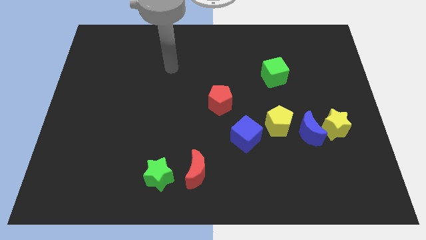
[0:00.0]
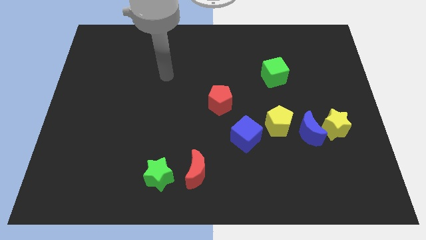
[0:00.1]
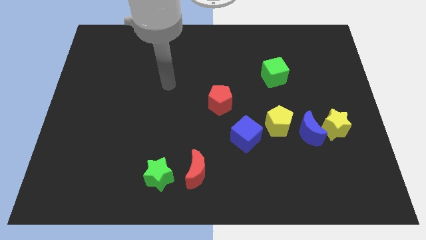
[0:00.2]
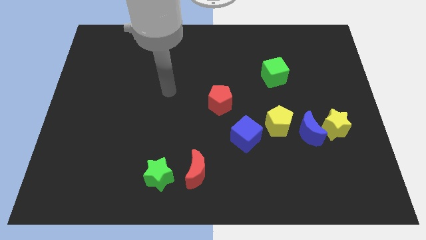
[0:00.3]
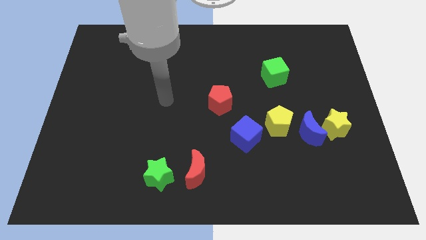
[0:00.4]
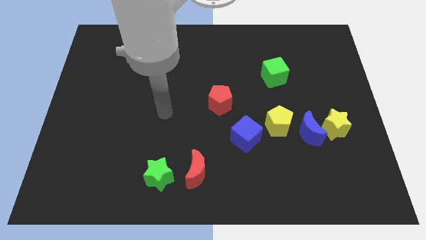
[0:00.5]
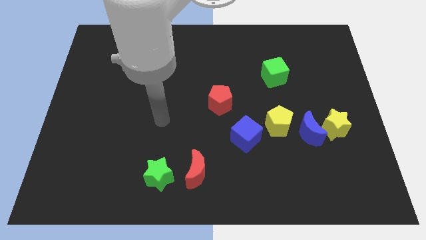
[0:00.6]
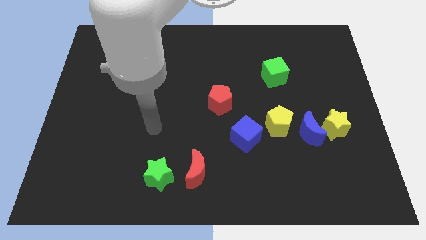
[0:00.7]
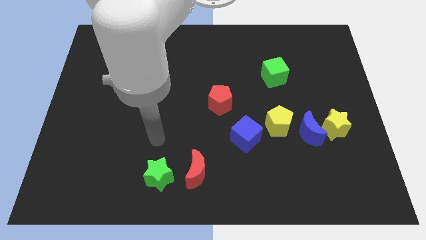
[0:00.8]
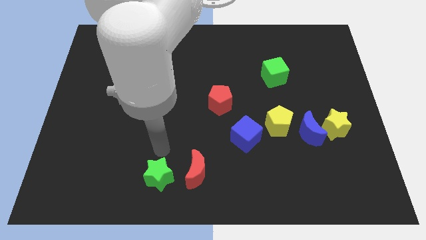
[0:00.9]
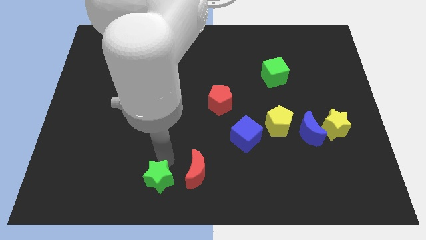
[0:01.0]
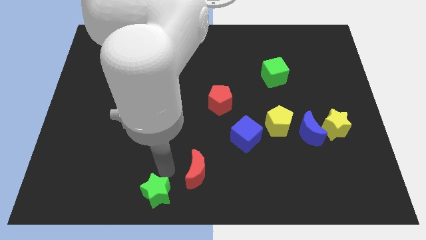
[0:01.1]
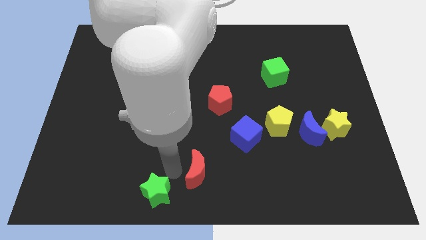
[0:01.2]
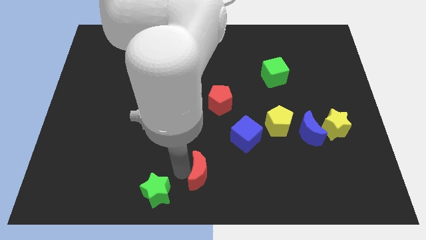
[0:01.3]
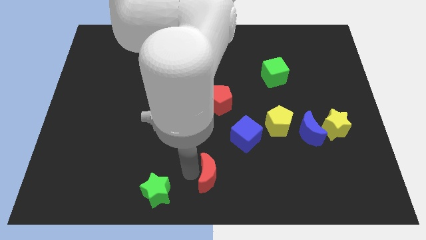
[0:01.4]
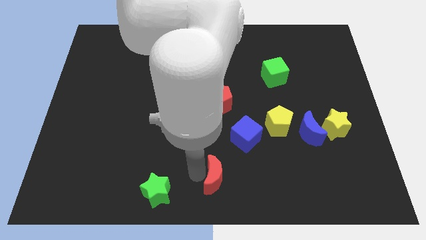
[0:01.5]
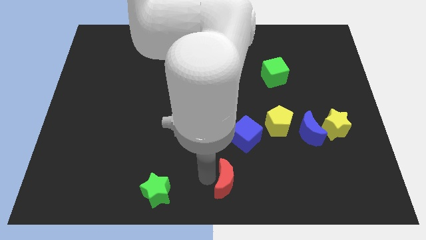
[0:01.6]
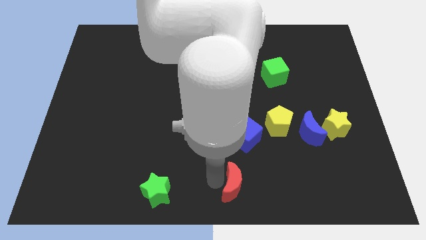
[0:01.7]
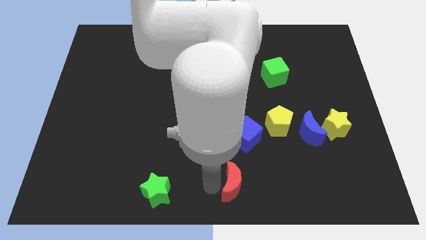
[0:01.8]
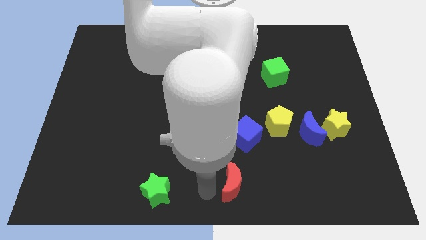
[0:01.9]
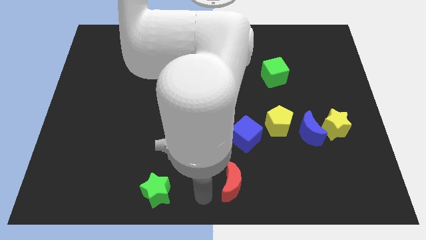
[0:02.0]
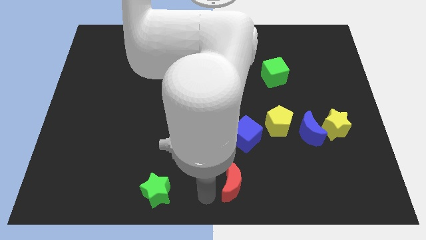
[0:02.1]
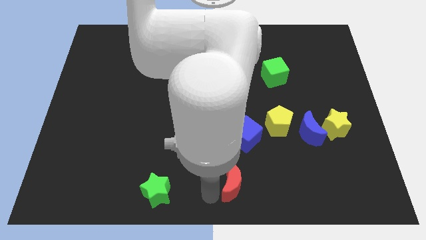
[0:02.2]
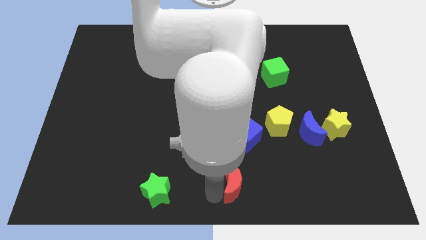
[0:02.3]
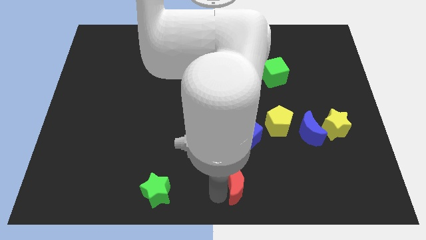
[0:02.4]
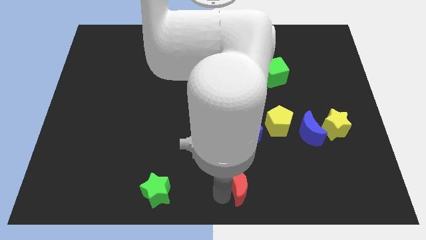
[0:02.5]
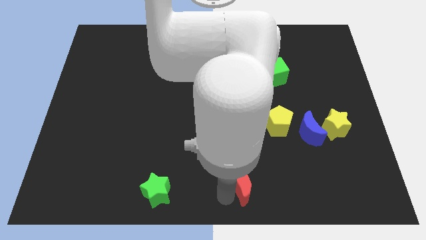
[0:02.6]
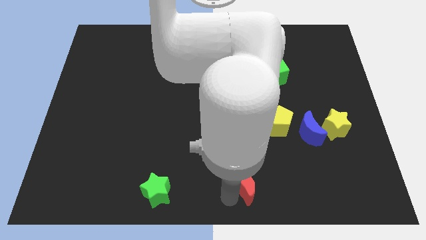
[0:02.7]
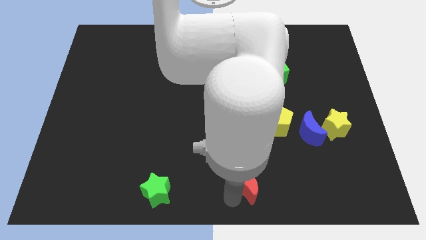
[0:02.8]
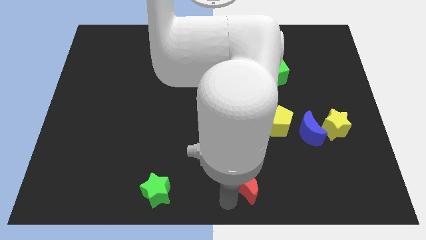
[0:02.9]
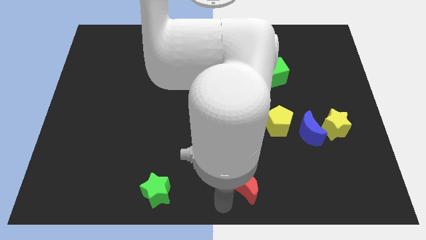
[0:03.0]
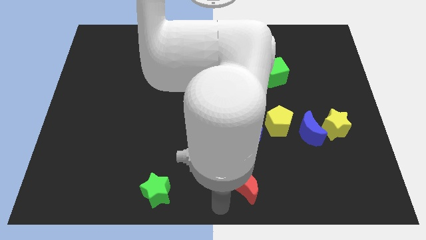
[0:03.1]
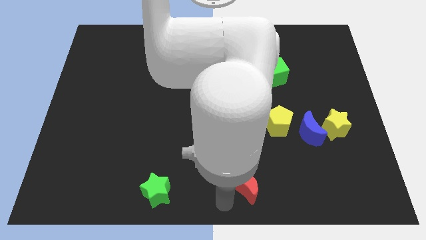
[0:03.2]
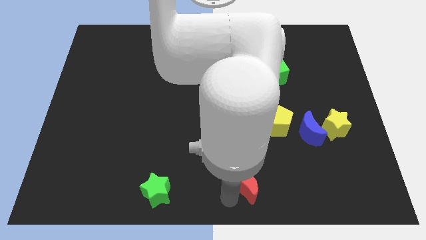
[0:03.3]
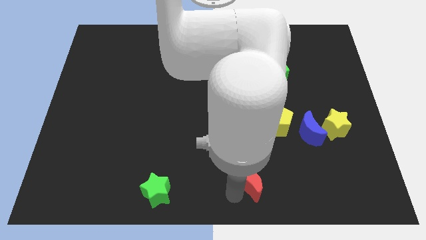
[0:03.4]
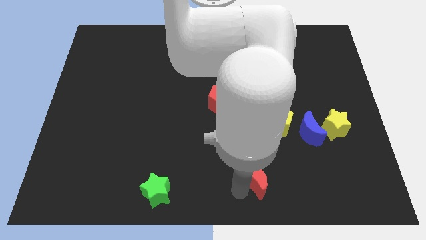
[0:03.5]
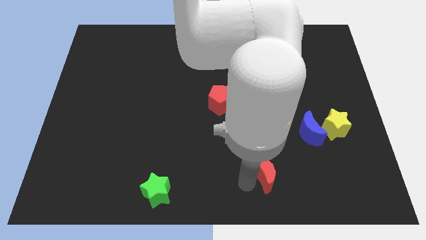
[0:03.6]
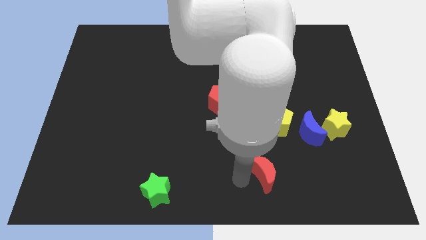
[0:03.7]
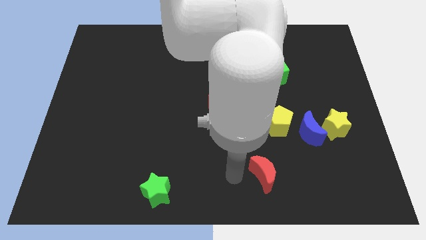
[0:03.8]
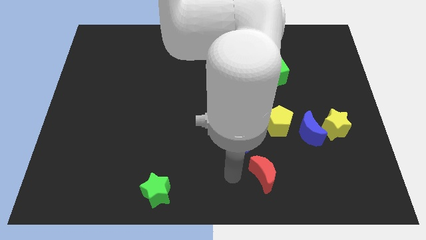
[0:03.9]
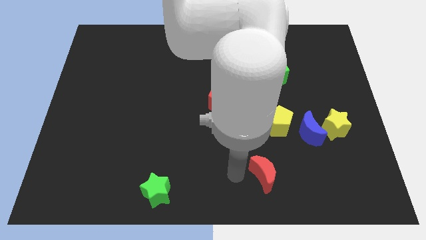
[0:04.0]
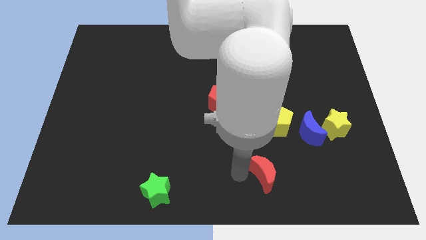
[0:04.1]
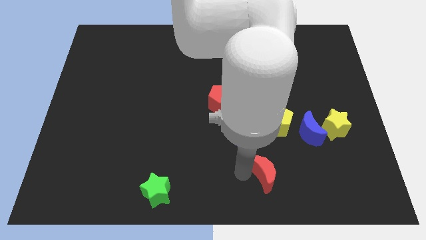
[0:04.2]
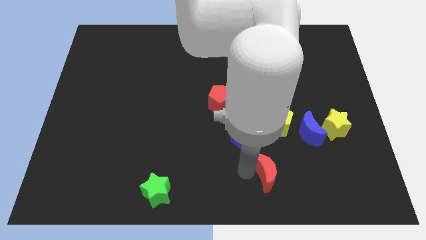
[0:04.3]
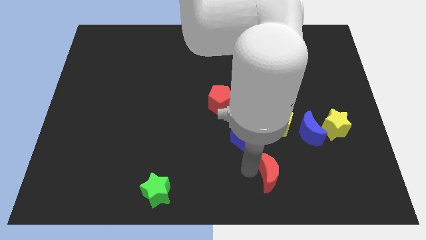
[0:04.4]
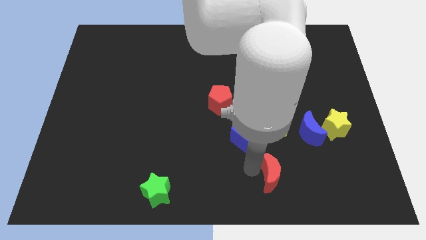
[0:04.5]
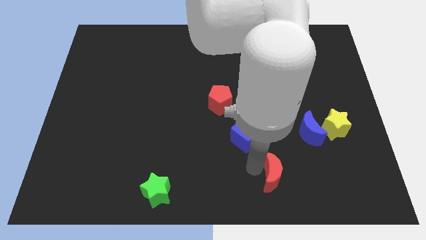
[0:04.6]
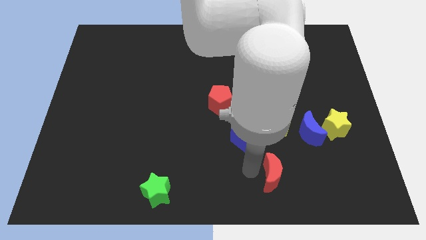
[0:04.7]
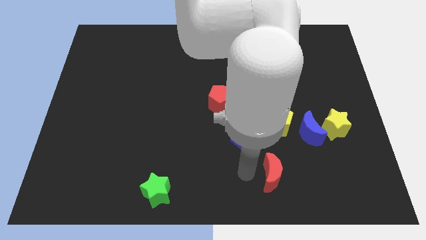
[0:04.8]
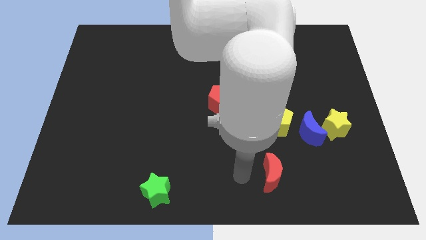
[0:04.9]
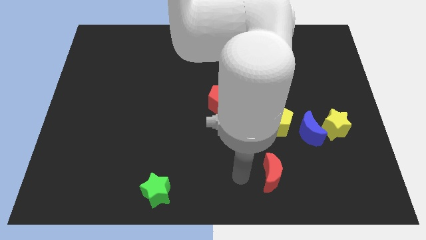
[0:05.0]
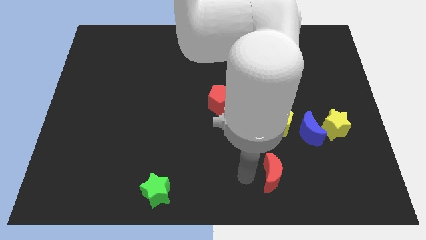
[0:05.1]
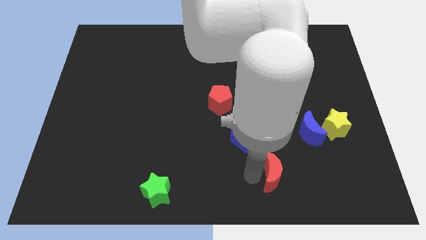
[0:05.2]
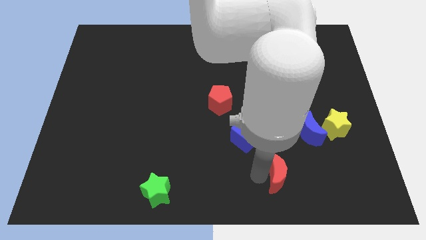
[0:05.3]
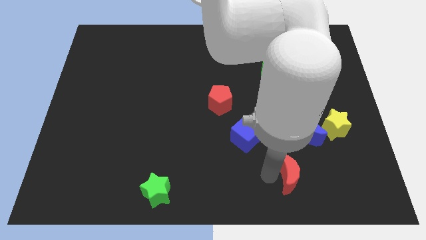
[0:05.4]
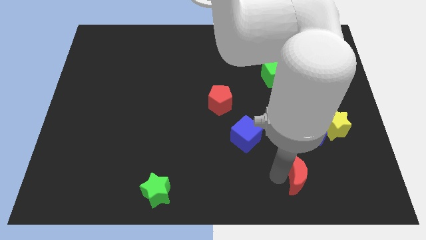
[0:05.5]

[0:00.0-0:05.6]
push the red moon to the bottom of the blue moon
